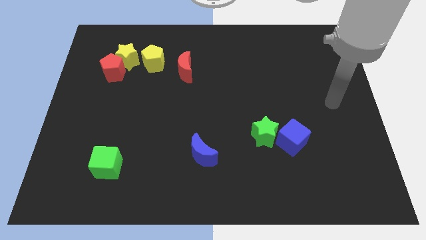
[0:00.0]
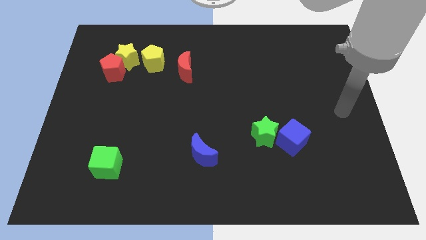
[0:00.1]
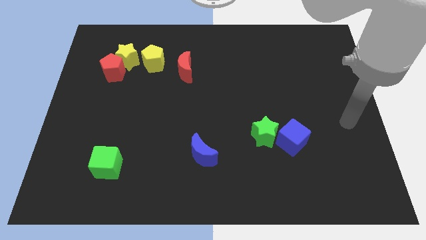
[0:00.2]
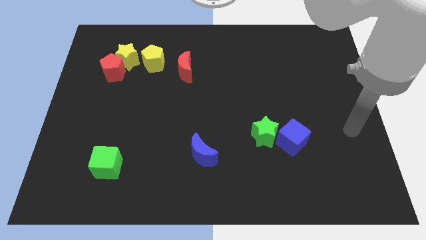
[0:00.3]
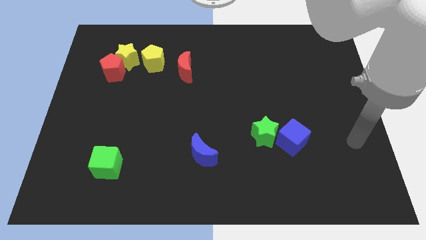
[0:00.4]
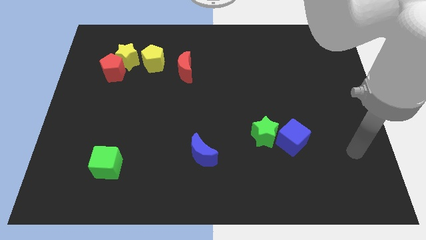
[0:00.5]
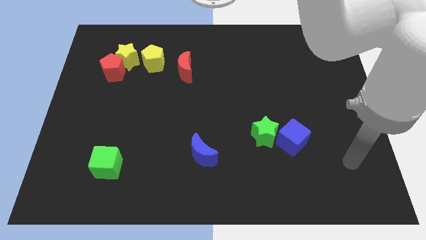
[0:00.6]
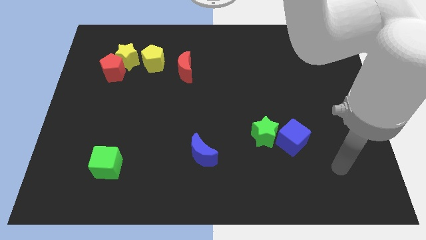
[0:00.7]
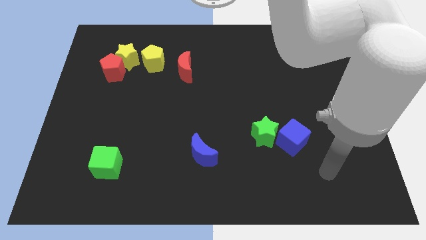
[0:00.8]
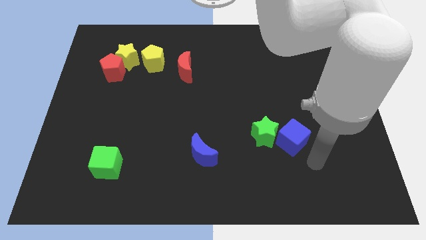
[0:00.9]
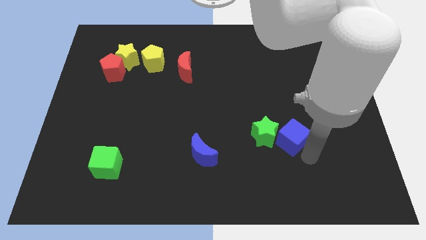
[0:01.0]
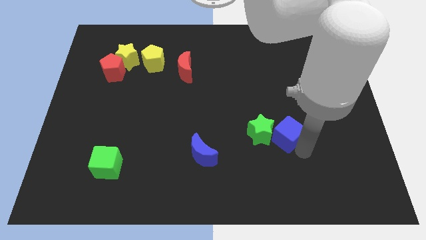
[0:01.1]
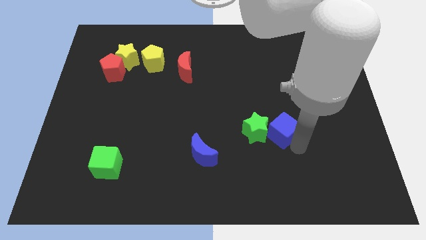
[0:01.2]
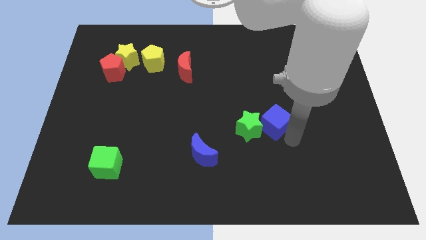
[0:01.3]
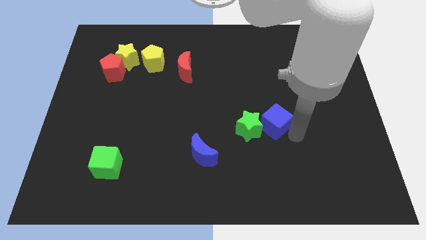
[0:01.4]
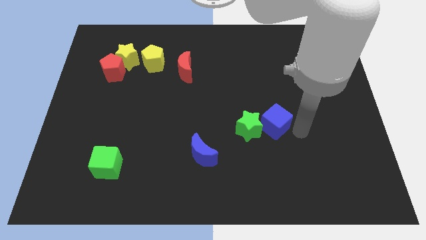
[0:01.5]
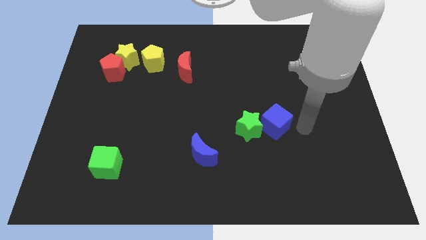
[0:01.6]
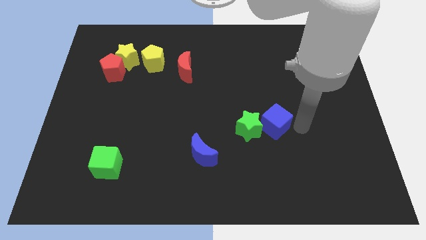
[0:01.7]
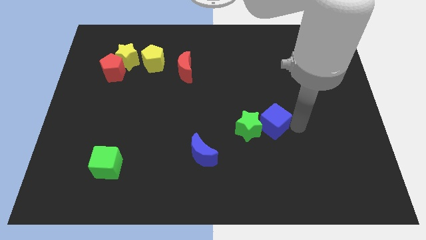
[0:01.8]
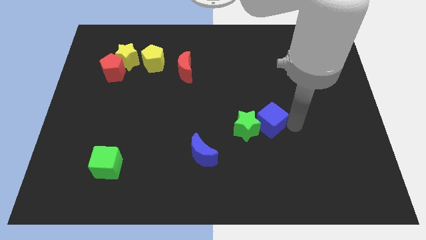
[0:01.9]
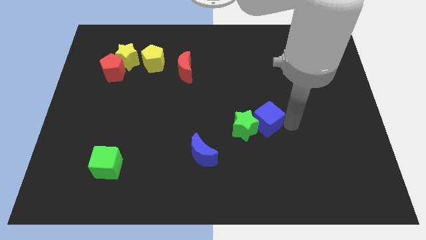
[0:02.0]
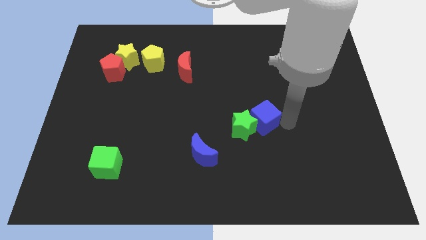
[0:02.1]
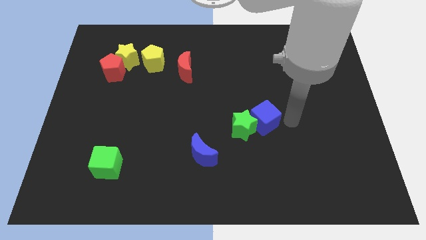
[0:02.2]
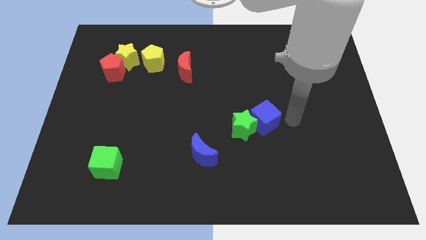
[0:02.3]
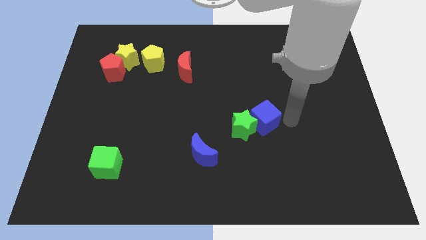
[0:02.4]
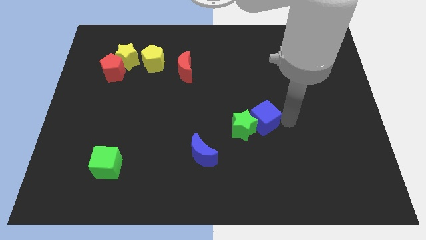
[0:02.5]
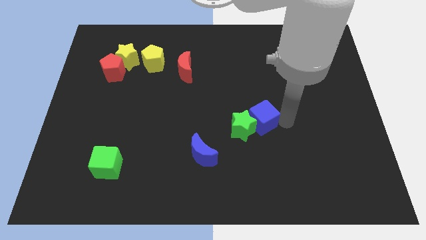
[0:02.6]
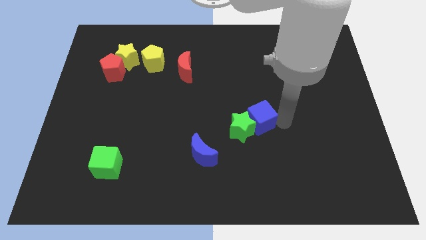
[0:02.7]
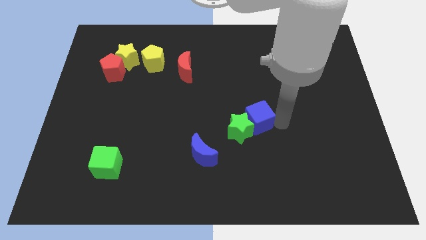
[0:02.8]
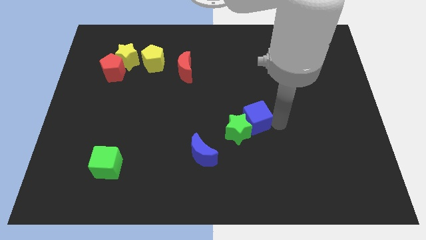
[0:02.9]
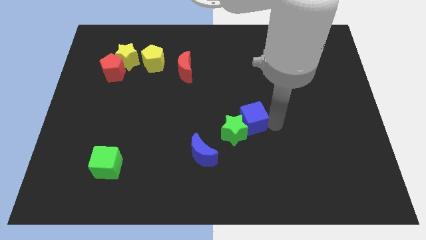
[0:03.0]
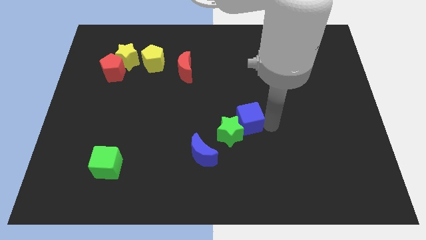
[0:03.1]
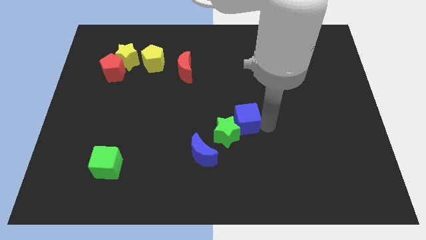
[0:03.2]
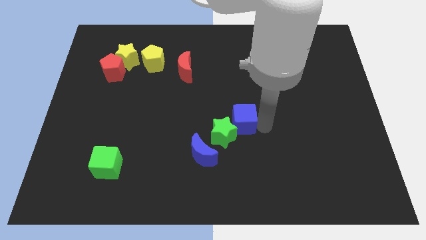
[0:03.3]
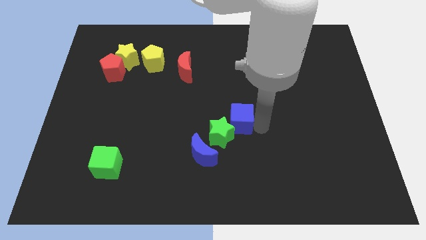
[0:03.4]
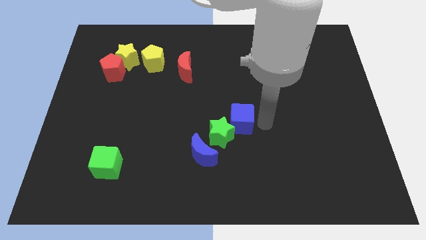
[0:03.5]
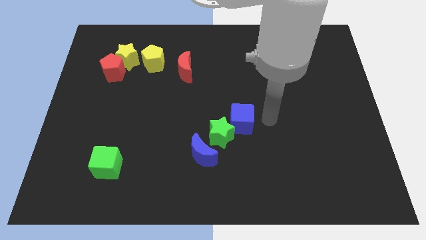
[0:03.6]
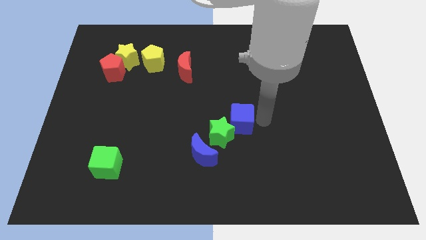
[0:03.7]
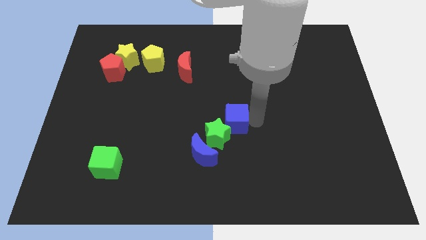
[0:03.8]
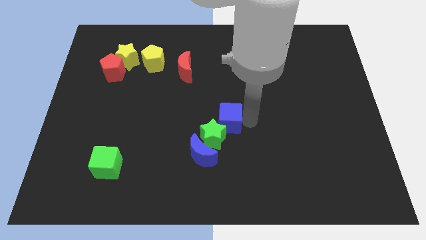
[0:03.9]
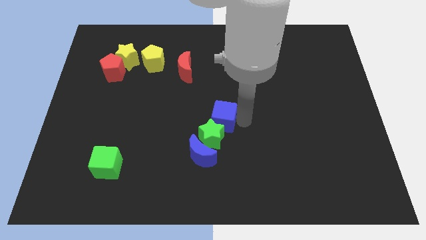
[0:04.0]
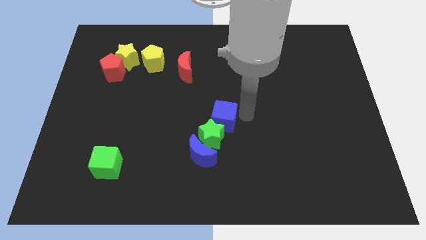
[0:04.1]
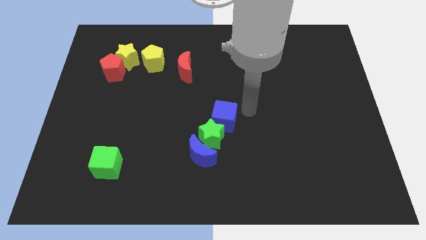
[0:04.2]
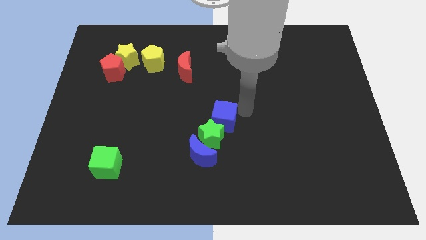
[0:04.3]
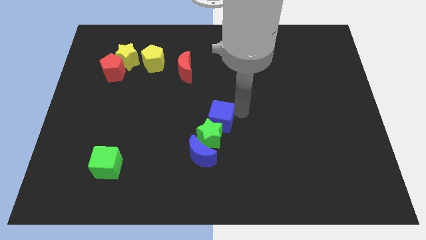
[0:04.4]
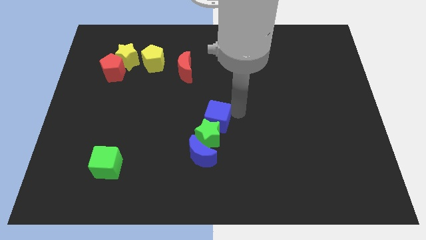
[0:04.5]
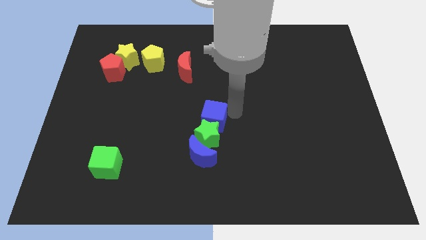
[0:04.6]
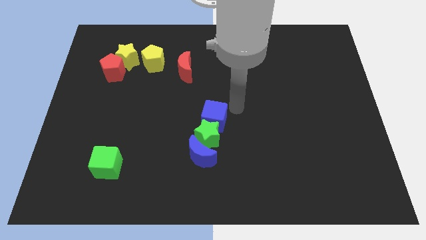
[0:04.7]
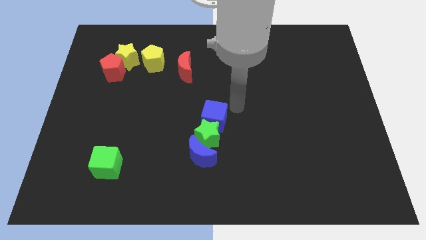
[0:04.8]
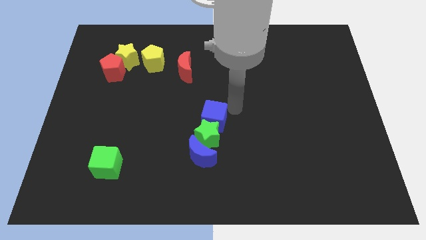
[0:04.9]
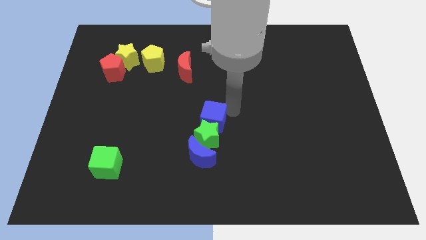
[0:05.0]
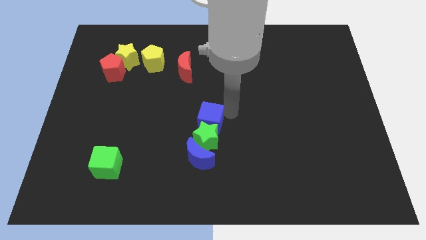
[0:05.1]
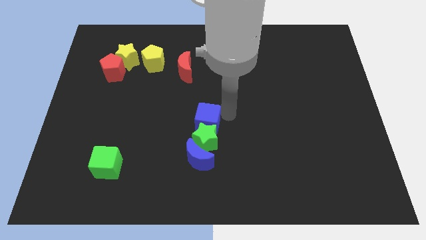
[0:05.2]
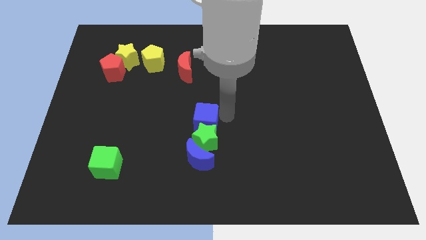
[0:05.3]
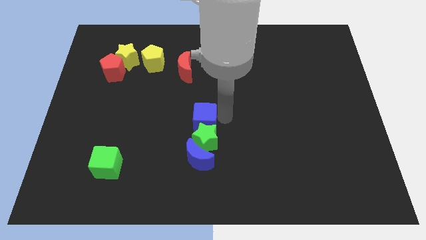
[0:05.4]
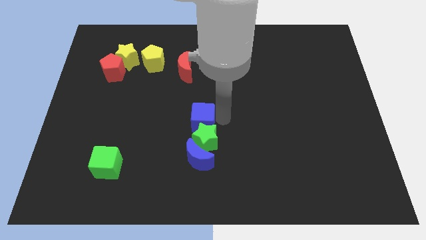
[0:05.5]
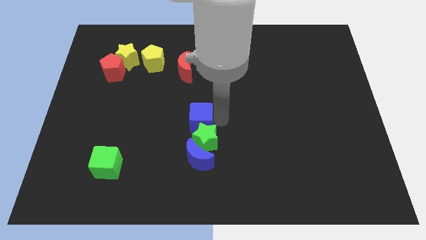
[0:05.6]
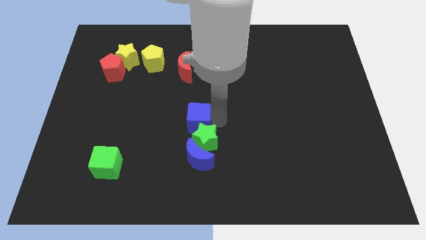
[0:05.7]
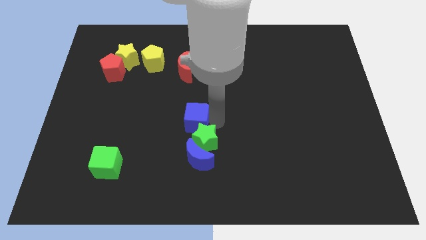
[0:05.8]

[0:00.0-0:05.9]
push the blue cube to the left

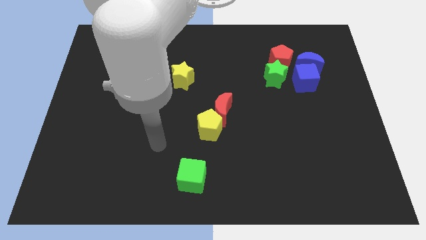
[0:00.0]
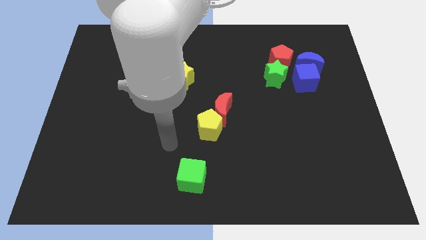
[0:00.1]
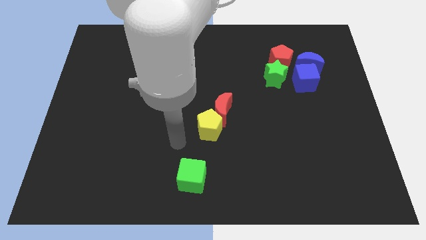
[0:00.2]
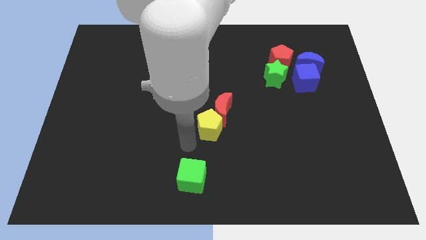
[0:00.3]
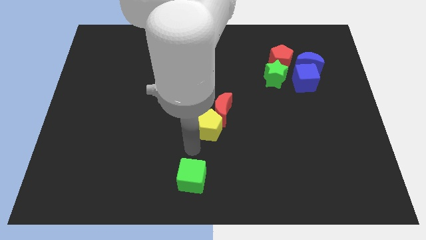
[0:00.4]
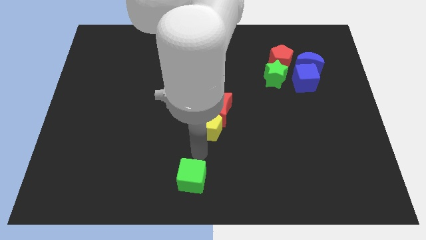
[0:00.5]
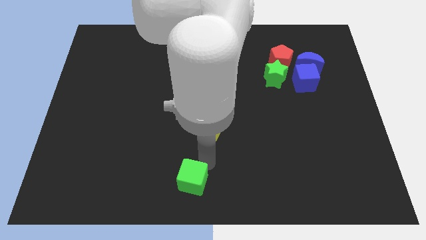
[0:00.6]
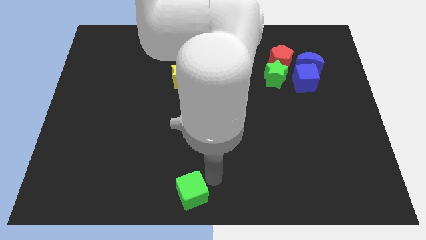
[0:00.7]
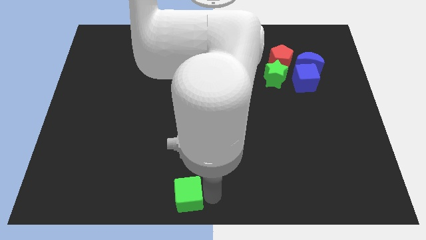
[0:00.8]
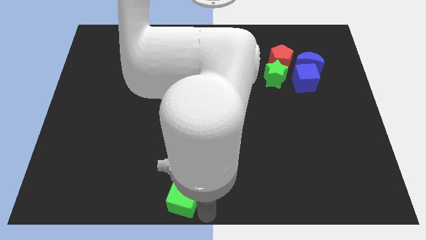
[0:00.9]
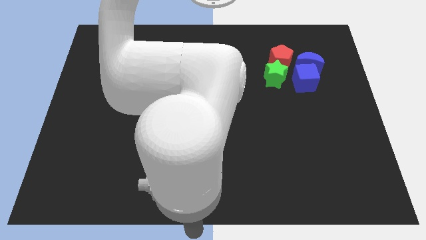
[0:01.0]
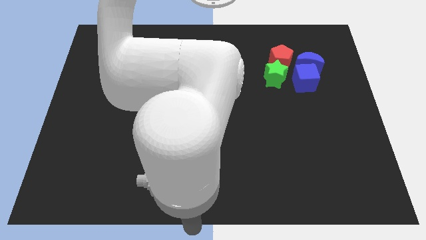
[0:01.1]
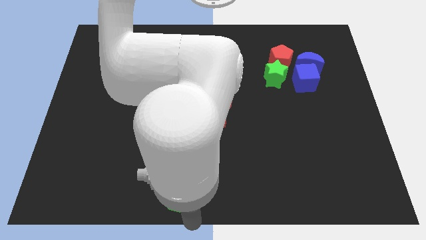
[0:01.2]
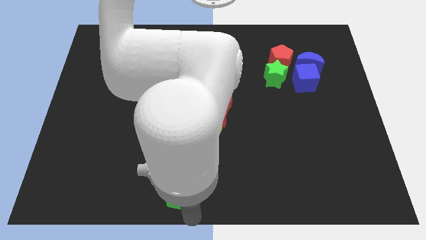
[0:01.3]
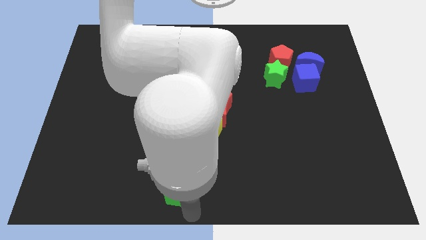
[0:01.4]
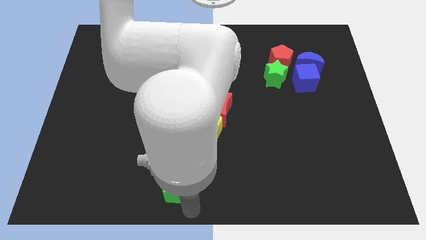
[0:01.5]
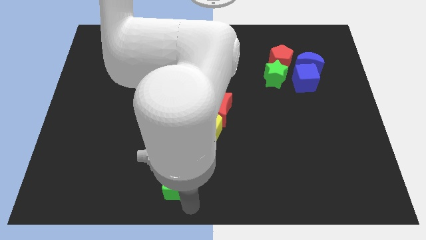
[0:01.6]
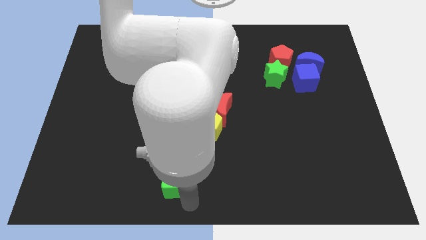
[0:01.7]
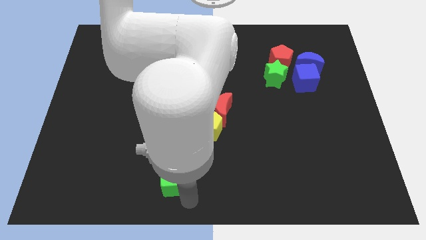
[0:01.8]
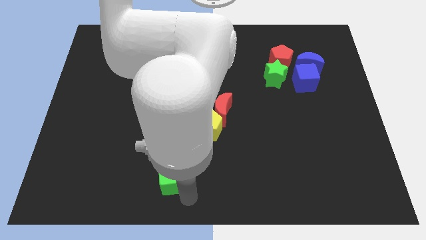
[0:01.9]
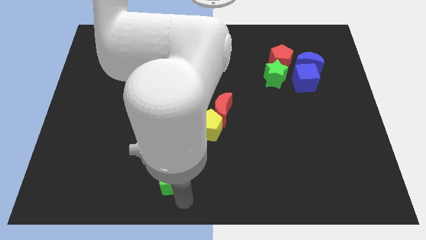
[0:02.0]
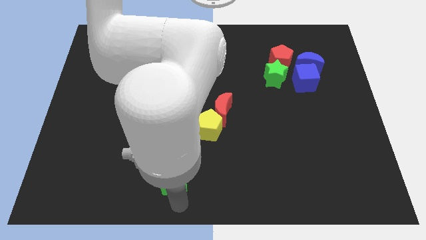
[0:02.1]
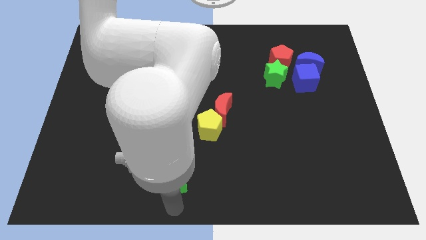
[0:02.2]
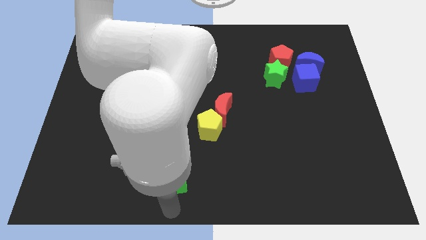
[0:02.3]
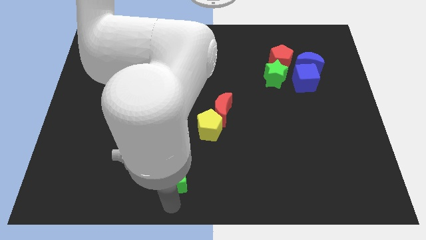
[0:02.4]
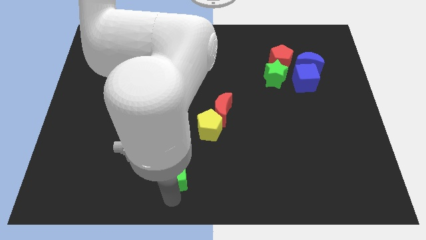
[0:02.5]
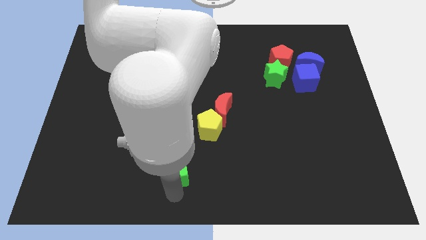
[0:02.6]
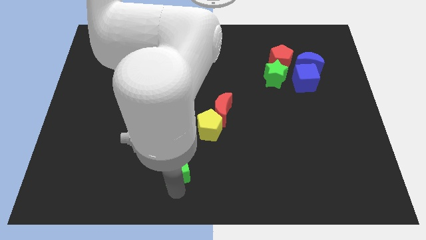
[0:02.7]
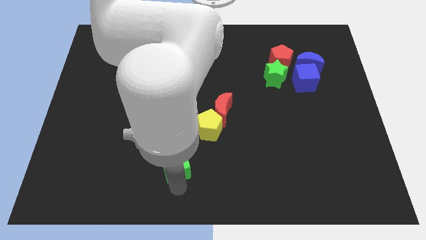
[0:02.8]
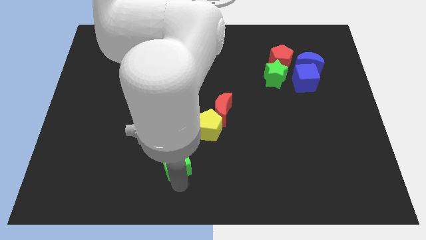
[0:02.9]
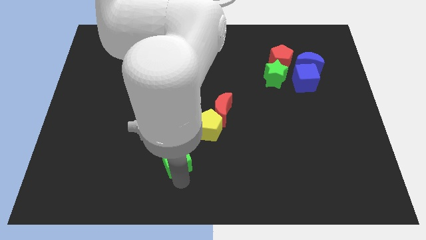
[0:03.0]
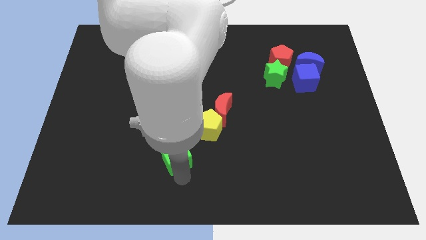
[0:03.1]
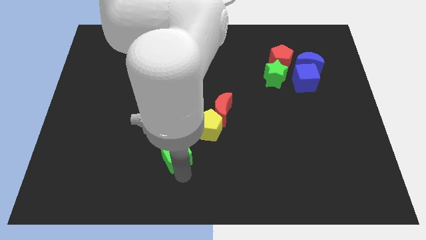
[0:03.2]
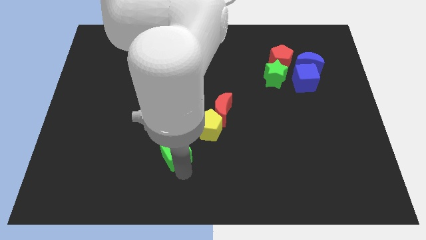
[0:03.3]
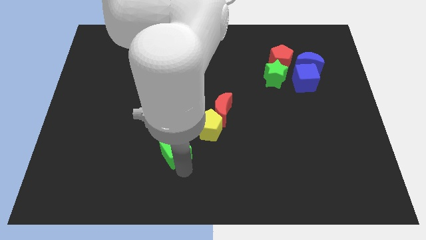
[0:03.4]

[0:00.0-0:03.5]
slightly move the green cube up and to the left
